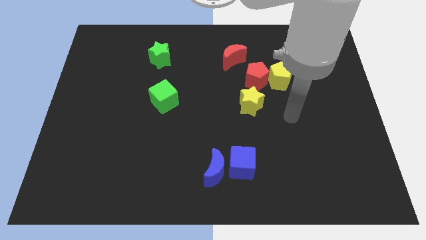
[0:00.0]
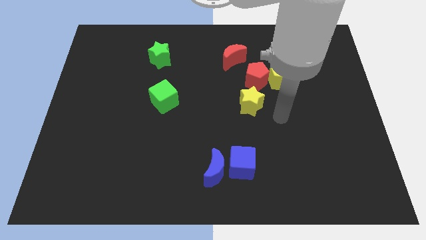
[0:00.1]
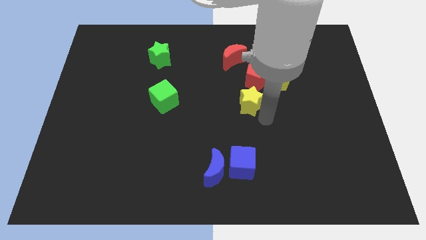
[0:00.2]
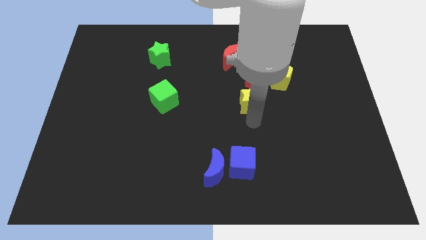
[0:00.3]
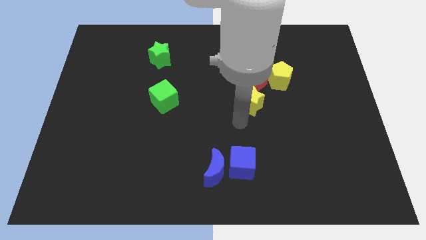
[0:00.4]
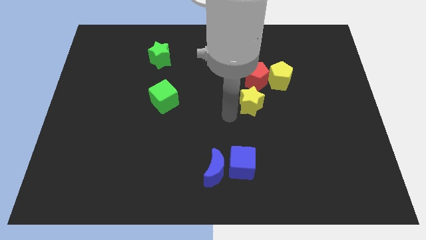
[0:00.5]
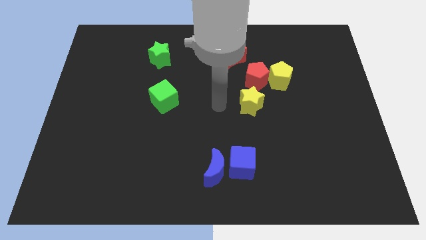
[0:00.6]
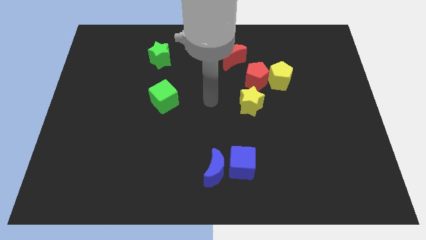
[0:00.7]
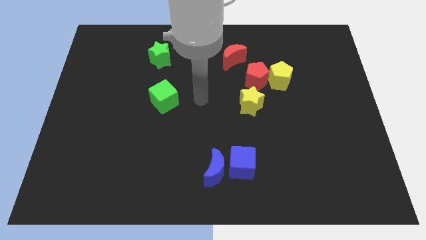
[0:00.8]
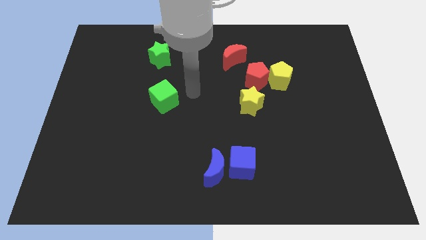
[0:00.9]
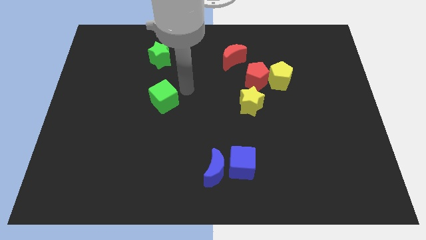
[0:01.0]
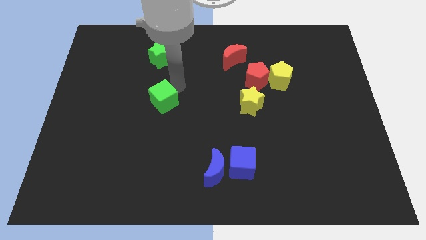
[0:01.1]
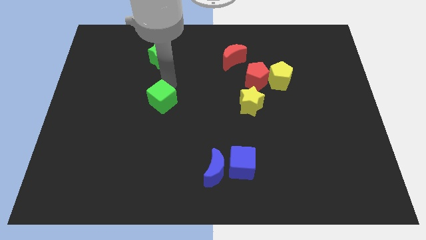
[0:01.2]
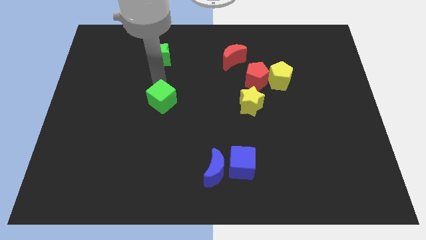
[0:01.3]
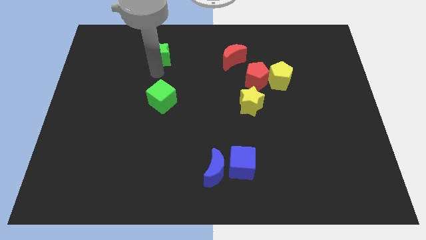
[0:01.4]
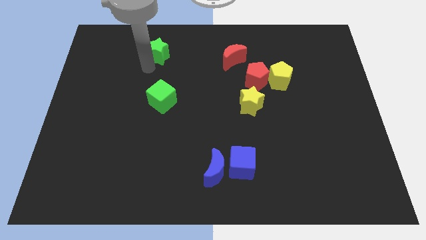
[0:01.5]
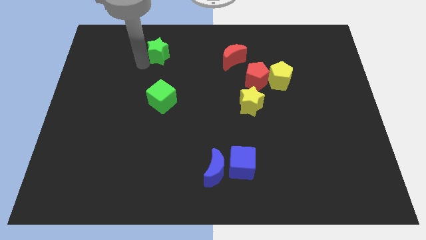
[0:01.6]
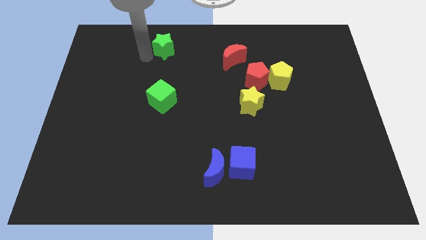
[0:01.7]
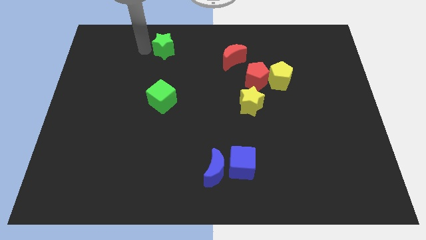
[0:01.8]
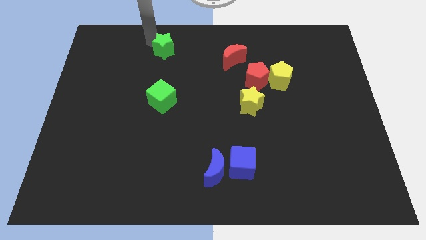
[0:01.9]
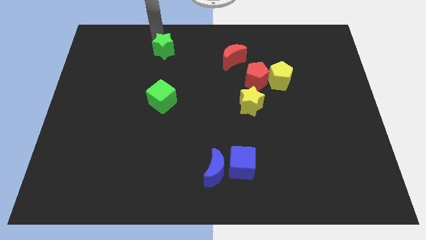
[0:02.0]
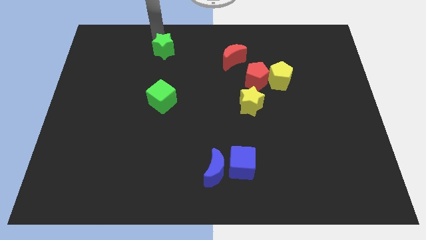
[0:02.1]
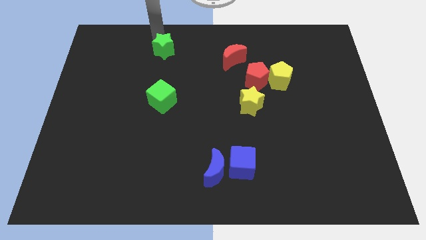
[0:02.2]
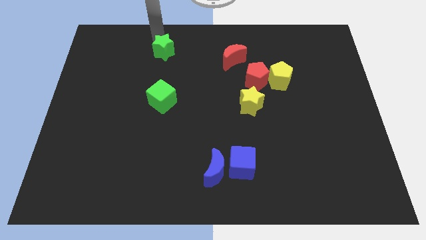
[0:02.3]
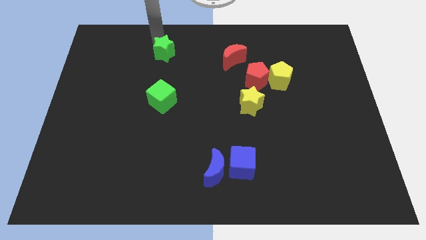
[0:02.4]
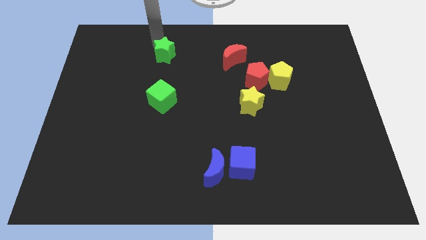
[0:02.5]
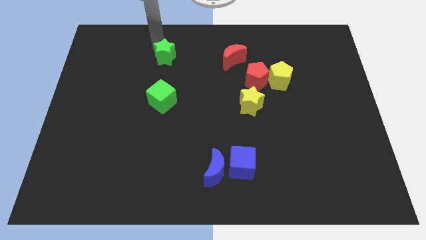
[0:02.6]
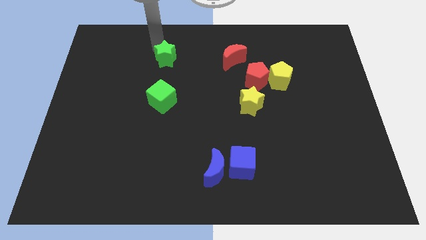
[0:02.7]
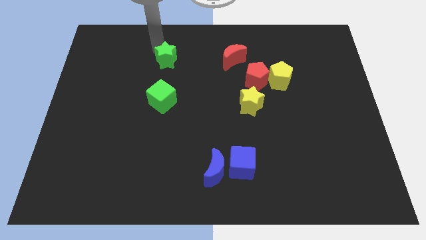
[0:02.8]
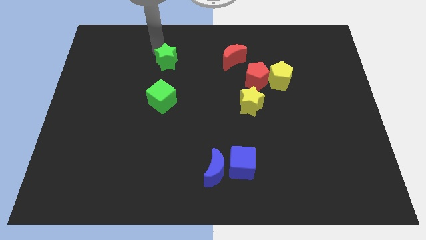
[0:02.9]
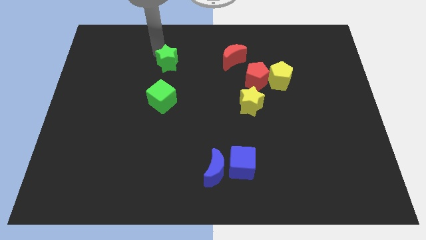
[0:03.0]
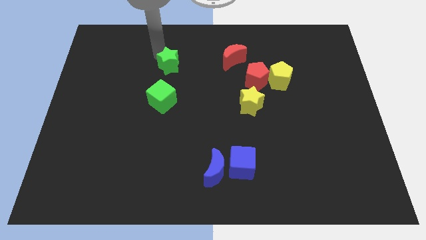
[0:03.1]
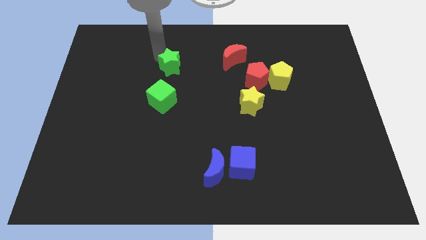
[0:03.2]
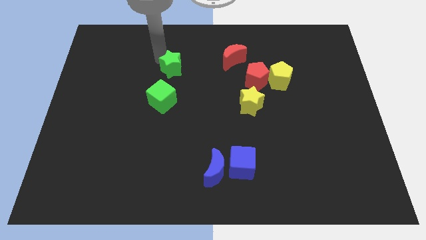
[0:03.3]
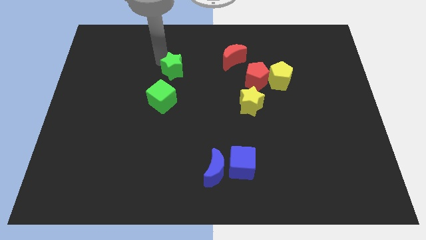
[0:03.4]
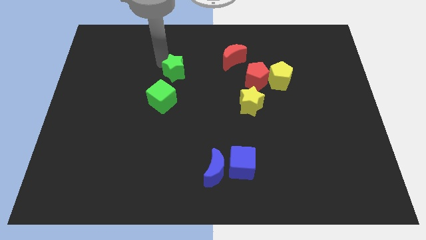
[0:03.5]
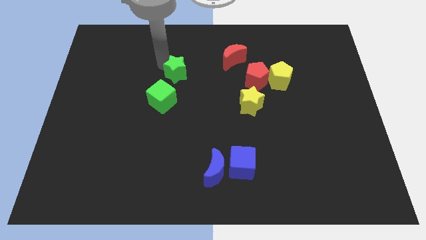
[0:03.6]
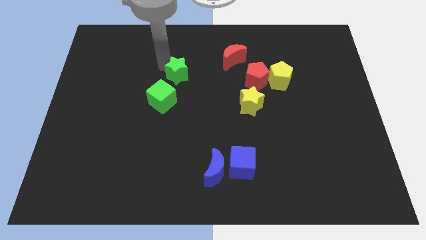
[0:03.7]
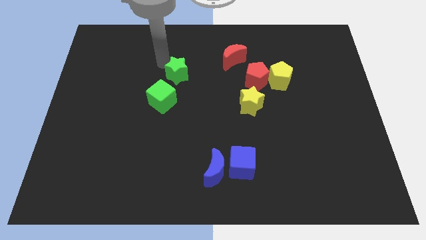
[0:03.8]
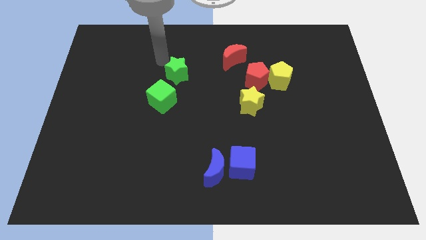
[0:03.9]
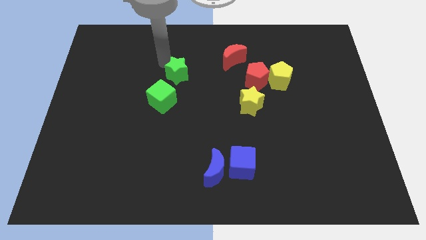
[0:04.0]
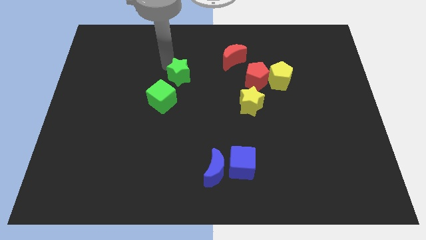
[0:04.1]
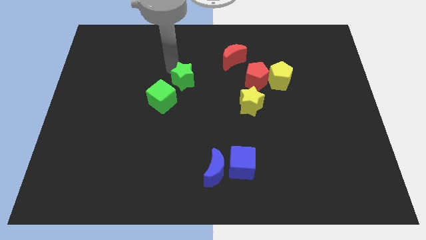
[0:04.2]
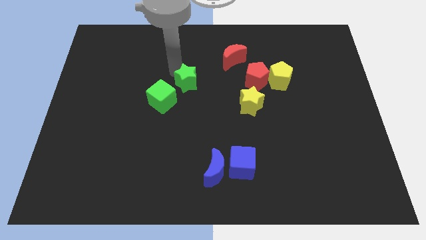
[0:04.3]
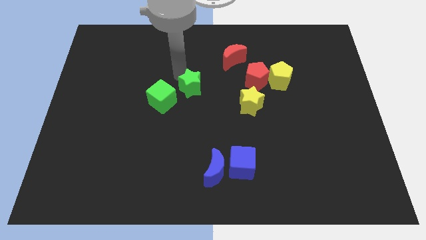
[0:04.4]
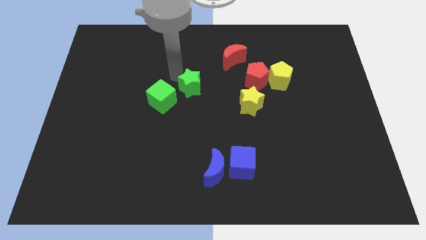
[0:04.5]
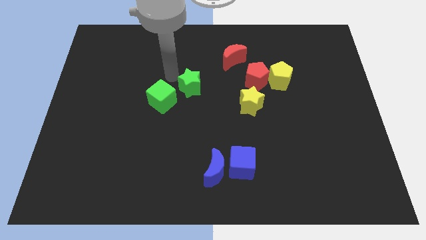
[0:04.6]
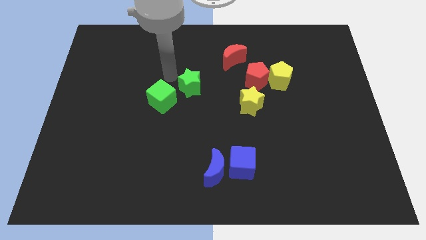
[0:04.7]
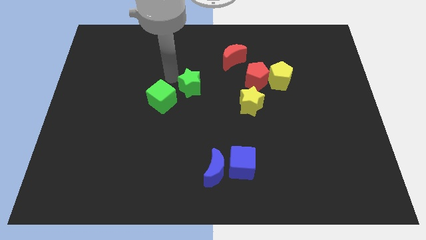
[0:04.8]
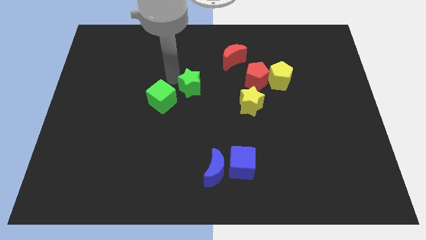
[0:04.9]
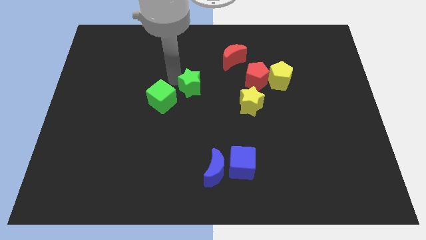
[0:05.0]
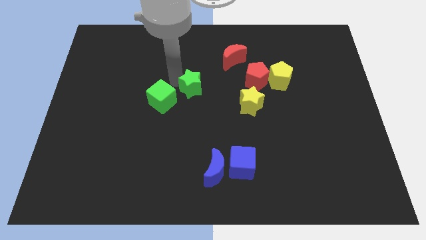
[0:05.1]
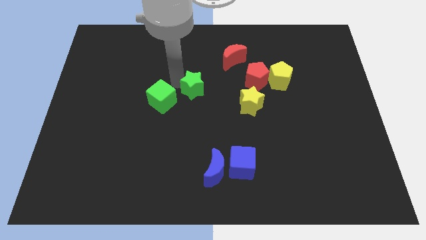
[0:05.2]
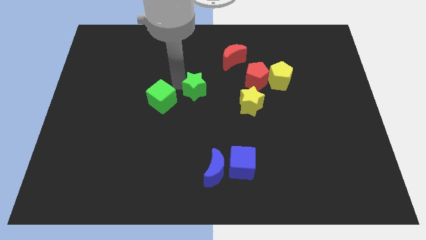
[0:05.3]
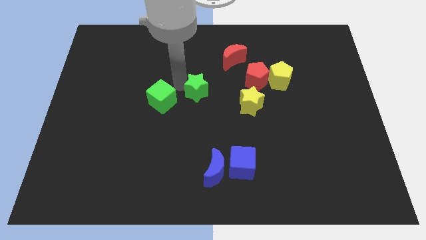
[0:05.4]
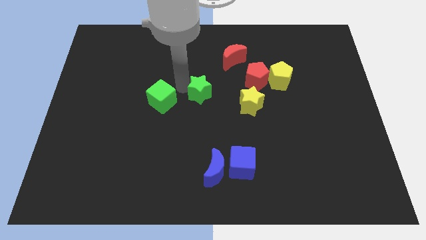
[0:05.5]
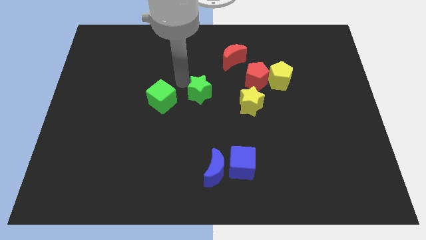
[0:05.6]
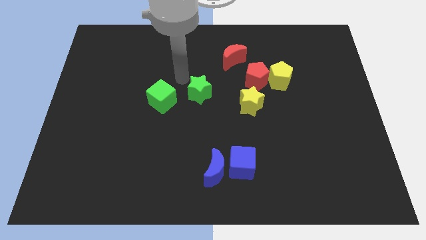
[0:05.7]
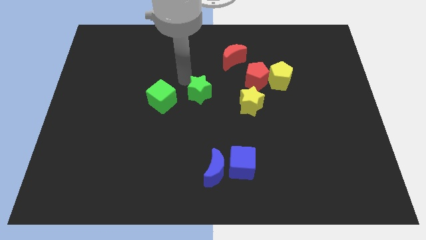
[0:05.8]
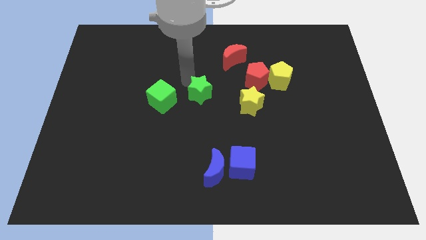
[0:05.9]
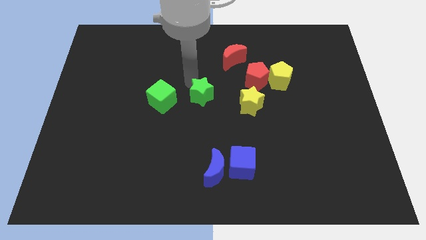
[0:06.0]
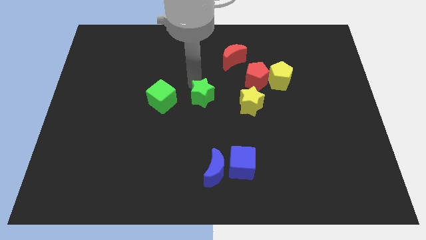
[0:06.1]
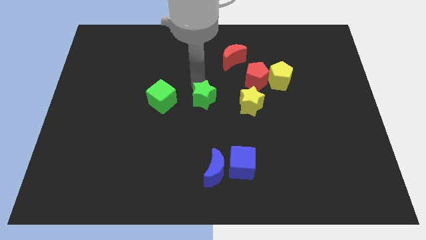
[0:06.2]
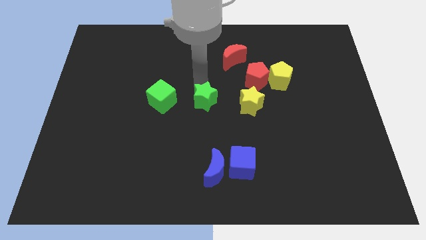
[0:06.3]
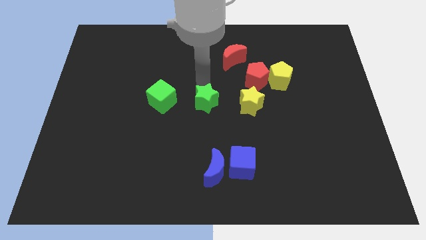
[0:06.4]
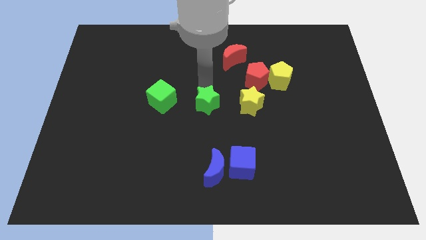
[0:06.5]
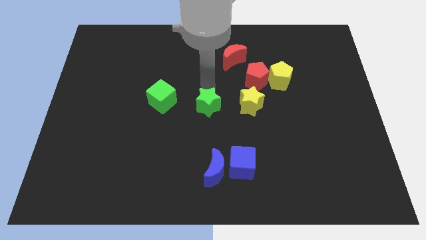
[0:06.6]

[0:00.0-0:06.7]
push the green star downwards and to the right diagonally

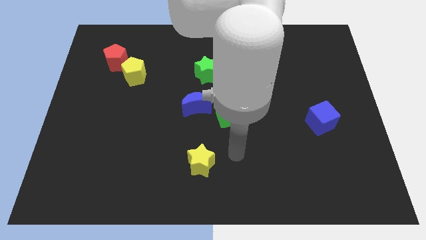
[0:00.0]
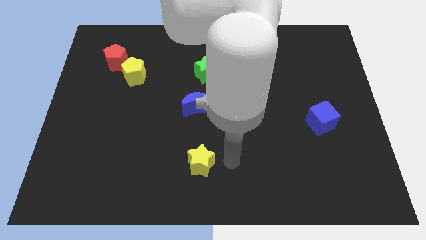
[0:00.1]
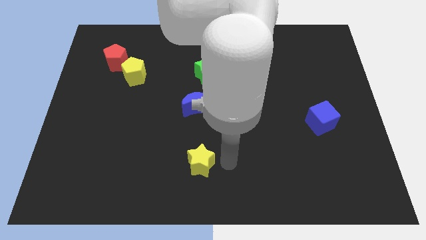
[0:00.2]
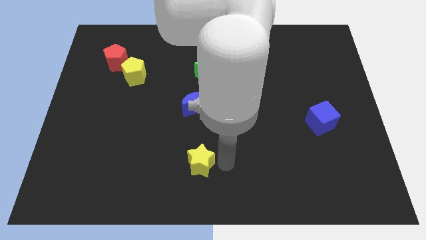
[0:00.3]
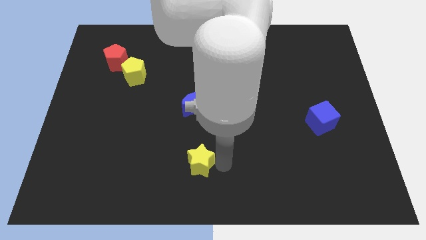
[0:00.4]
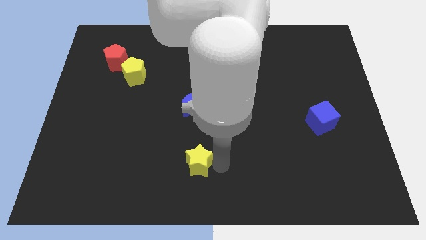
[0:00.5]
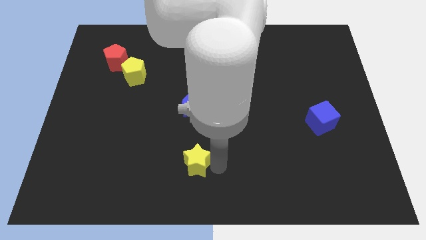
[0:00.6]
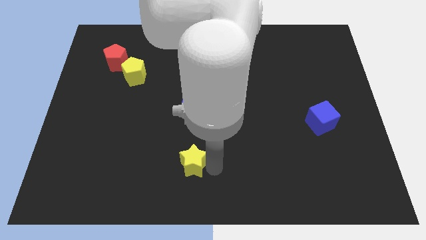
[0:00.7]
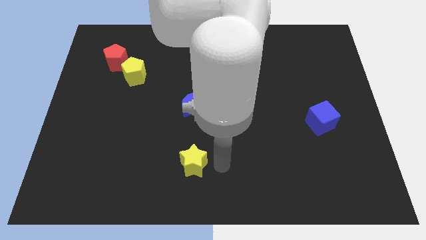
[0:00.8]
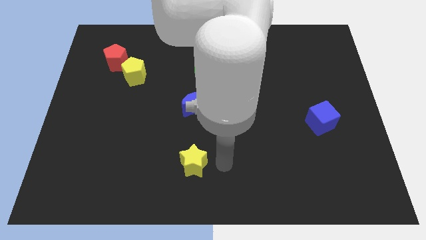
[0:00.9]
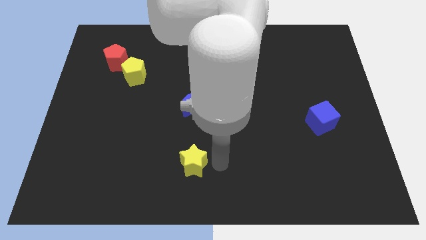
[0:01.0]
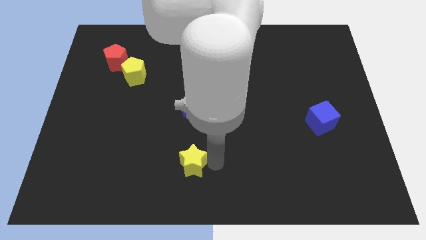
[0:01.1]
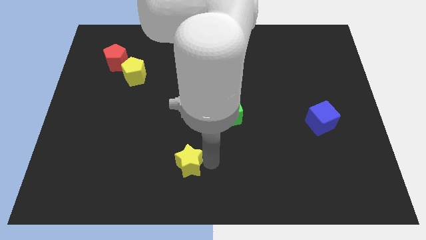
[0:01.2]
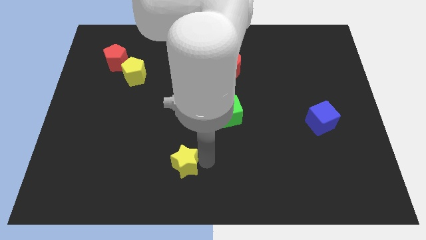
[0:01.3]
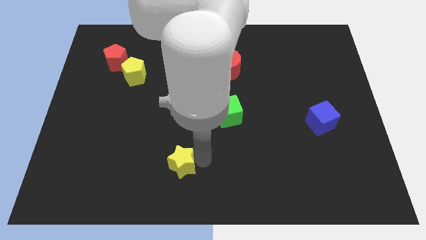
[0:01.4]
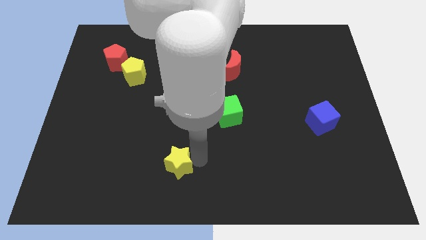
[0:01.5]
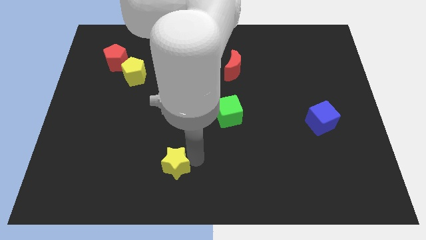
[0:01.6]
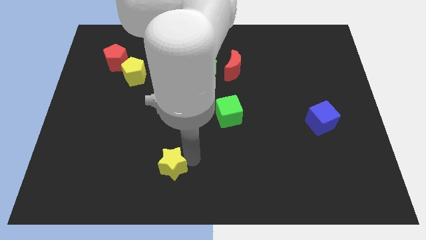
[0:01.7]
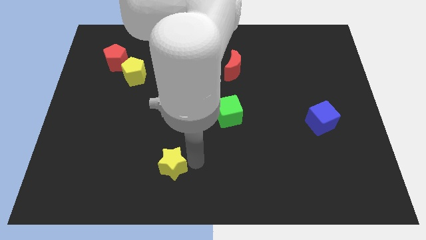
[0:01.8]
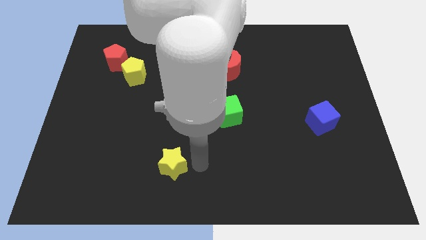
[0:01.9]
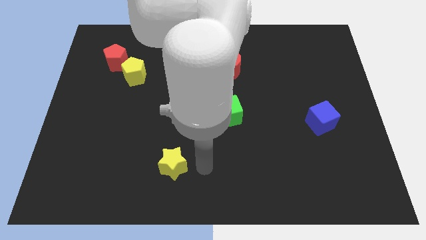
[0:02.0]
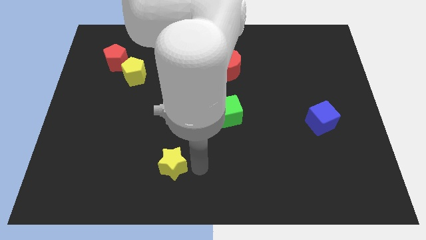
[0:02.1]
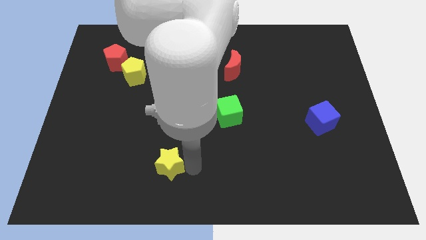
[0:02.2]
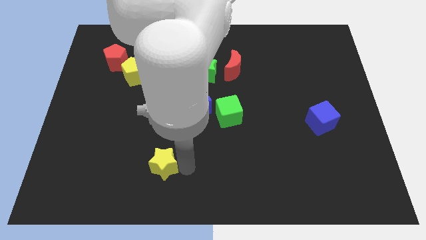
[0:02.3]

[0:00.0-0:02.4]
slide the yellow star left a bit
